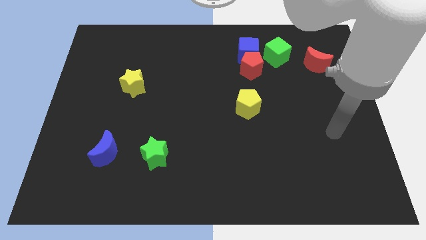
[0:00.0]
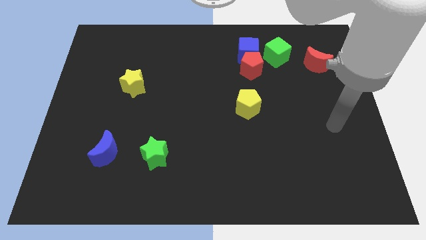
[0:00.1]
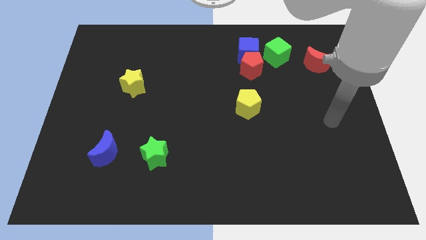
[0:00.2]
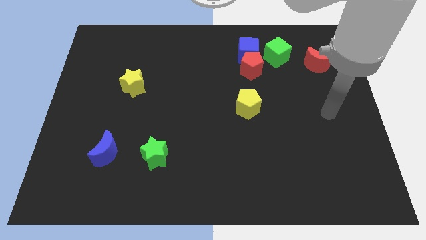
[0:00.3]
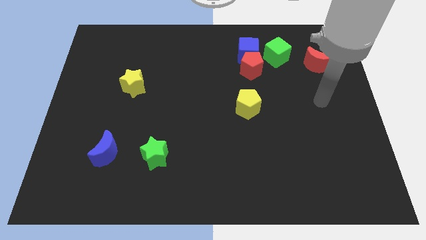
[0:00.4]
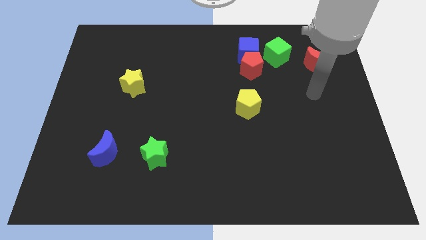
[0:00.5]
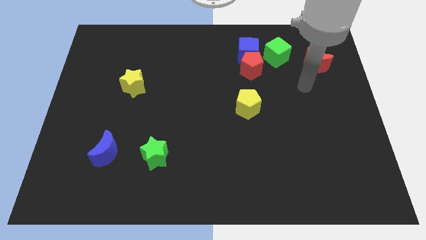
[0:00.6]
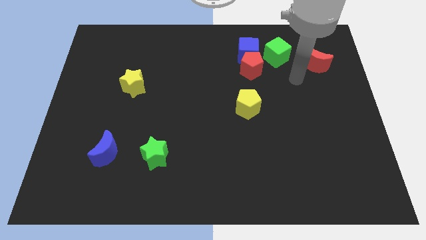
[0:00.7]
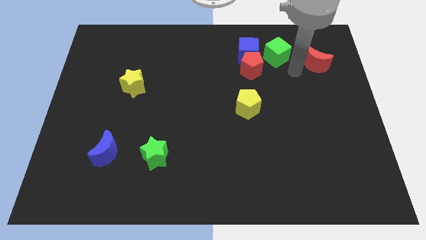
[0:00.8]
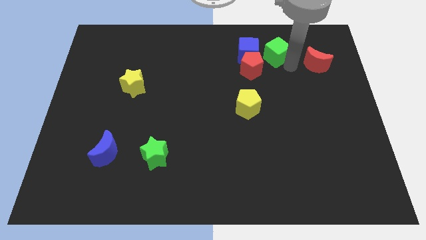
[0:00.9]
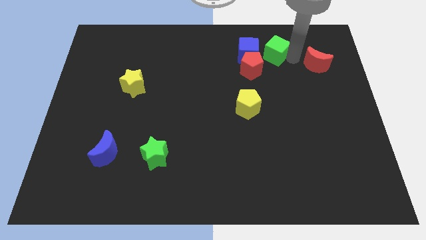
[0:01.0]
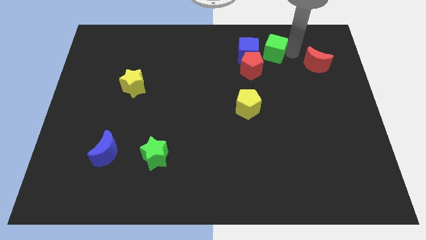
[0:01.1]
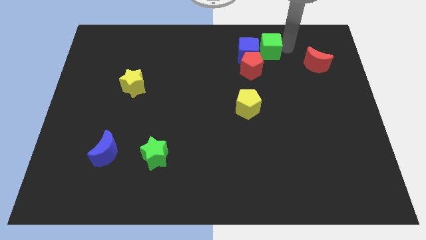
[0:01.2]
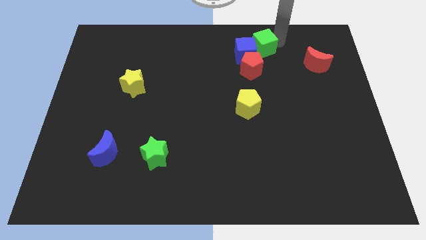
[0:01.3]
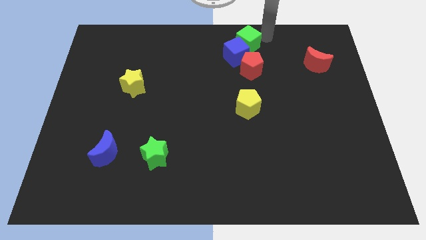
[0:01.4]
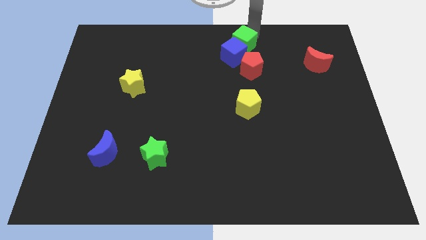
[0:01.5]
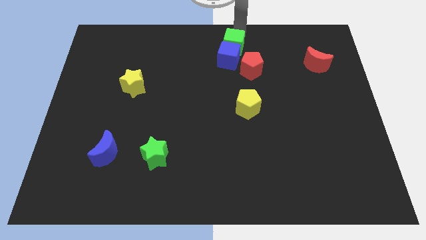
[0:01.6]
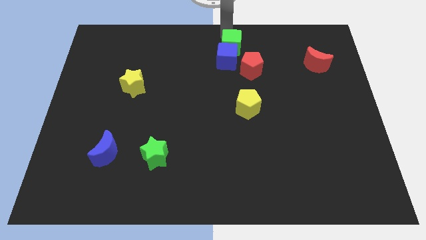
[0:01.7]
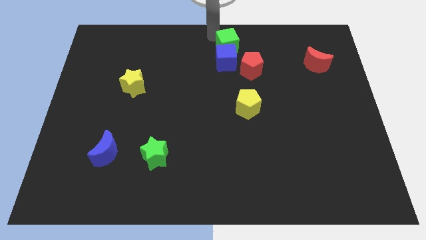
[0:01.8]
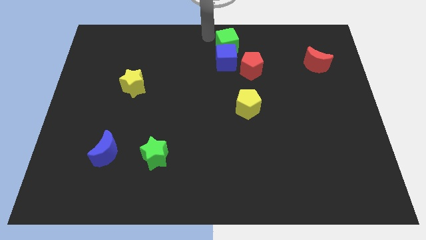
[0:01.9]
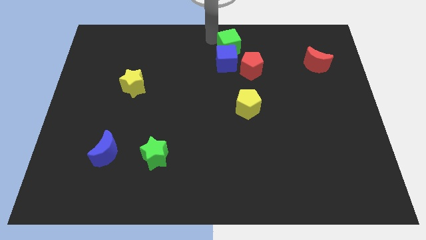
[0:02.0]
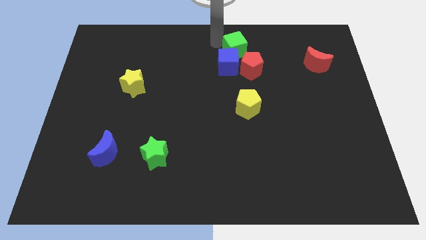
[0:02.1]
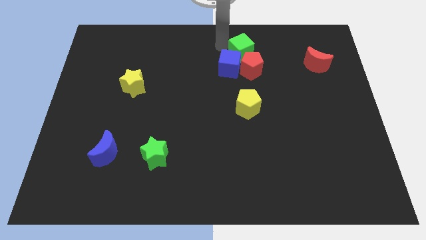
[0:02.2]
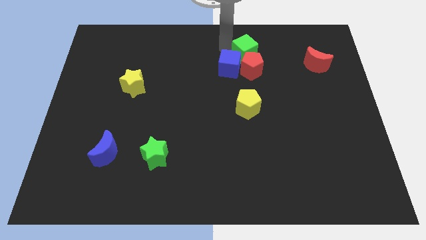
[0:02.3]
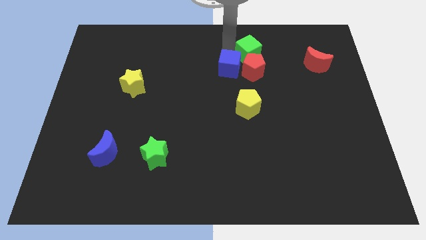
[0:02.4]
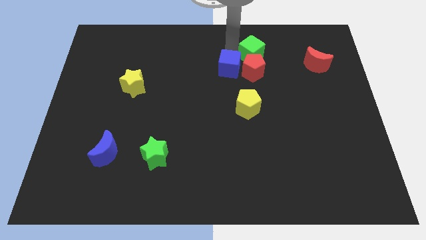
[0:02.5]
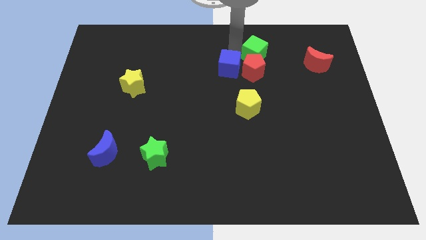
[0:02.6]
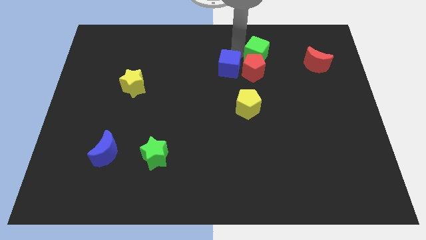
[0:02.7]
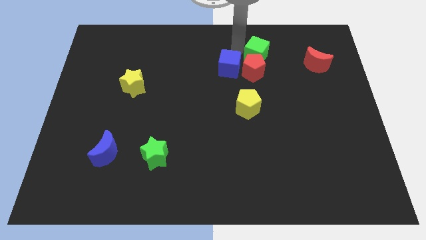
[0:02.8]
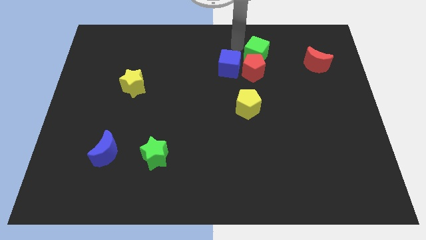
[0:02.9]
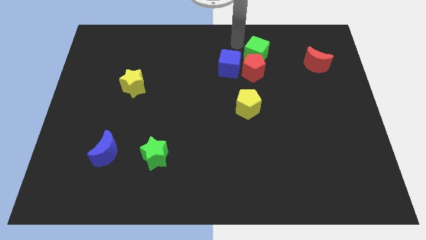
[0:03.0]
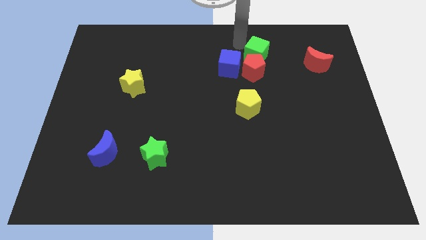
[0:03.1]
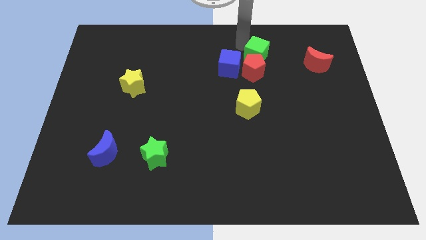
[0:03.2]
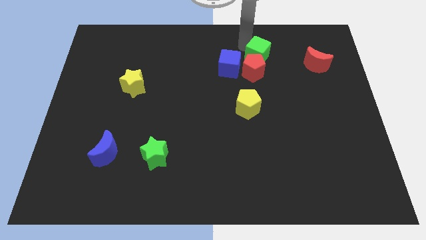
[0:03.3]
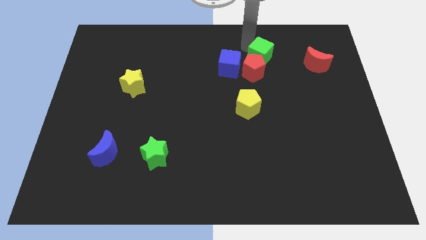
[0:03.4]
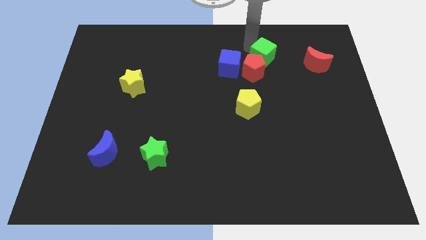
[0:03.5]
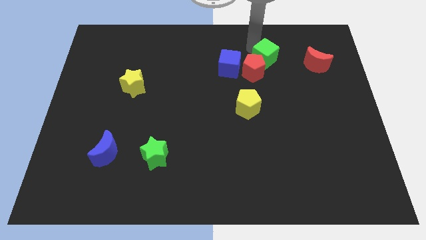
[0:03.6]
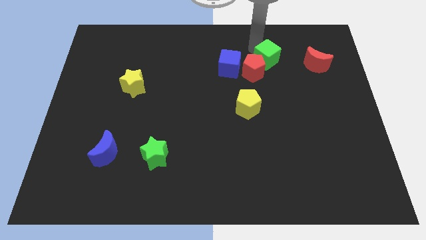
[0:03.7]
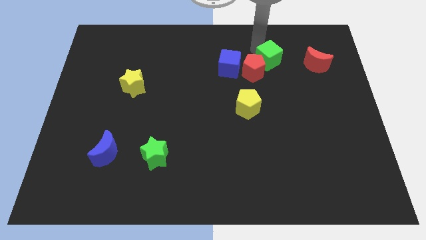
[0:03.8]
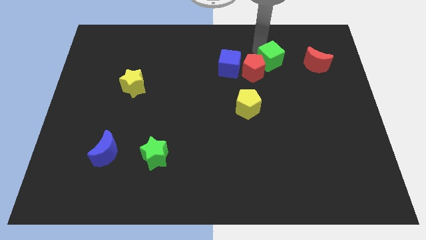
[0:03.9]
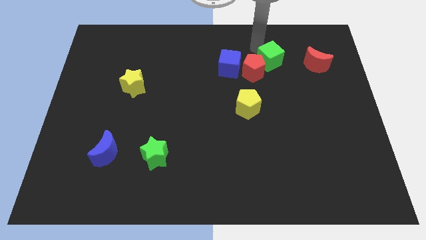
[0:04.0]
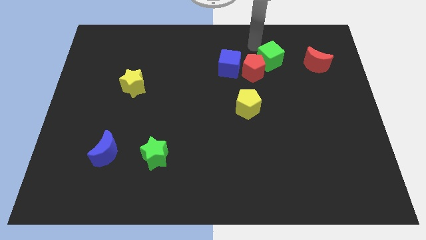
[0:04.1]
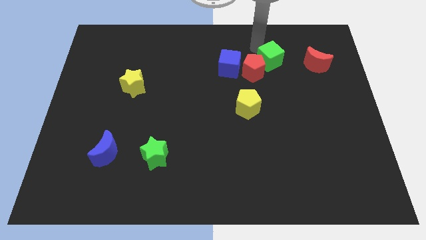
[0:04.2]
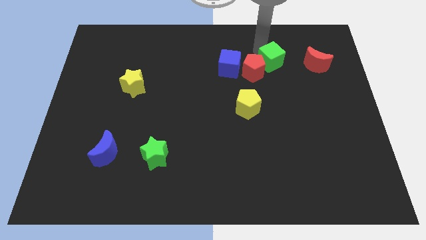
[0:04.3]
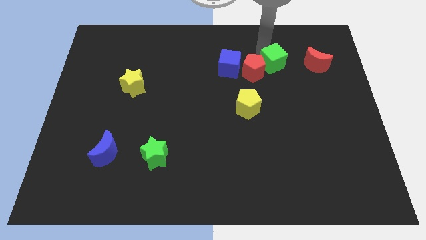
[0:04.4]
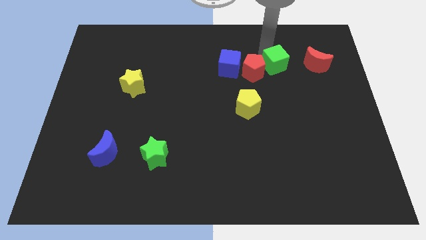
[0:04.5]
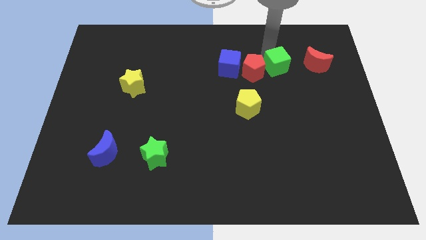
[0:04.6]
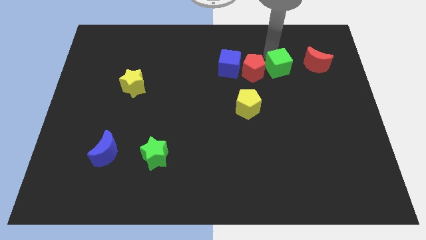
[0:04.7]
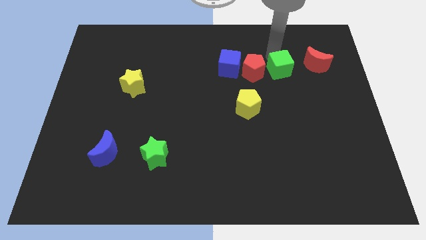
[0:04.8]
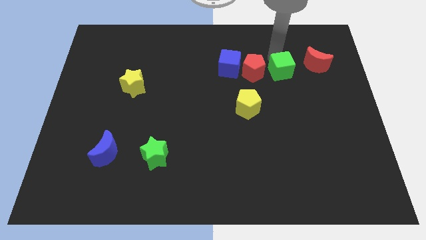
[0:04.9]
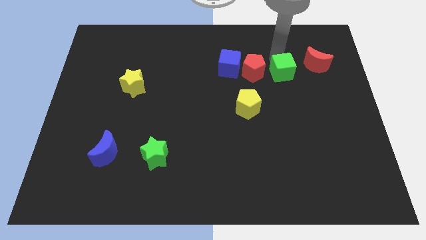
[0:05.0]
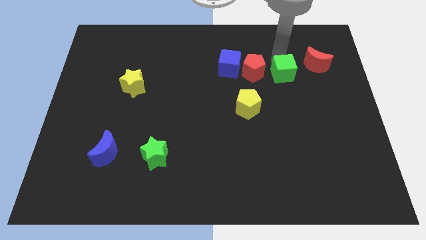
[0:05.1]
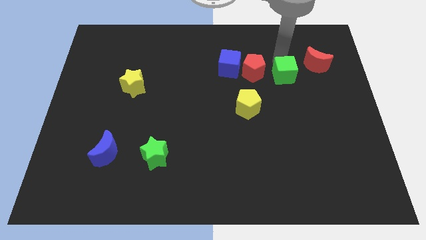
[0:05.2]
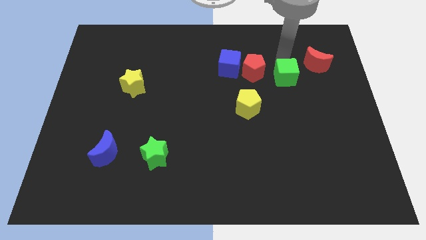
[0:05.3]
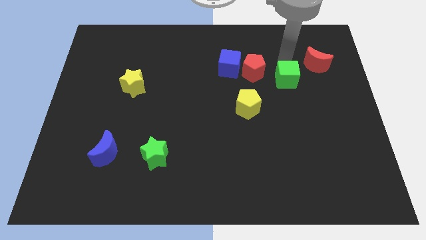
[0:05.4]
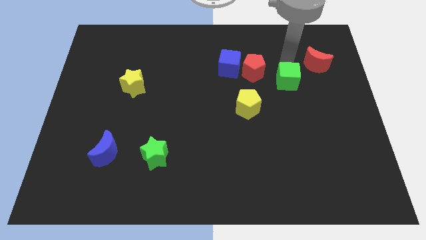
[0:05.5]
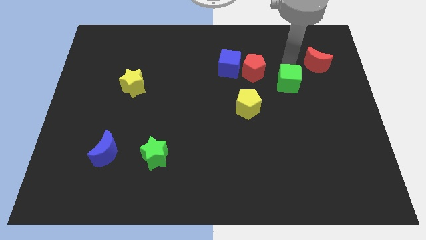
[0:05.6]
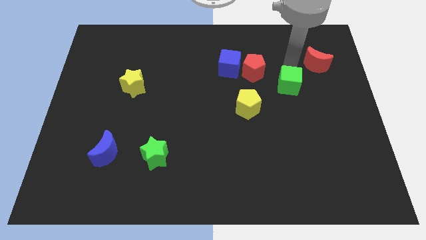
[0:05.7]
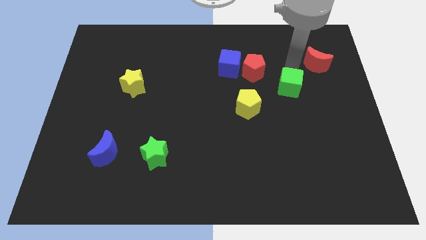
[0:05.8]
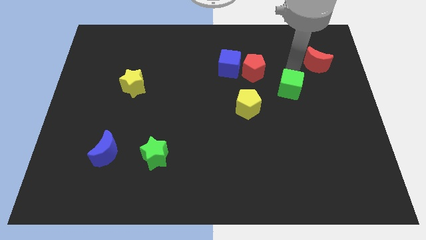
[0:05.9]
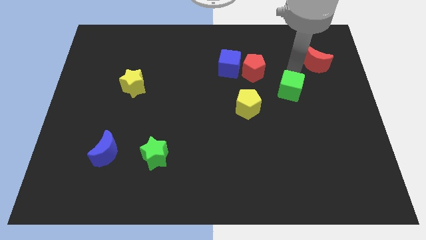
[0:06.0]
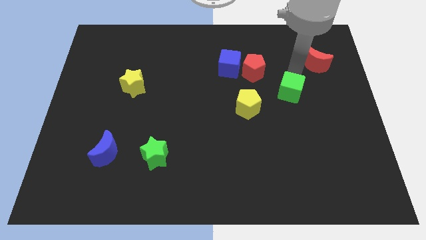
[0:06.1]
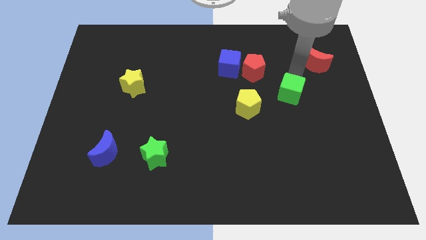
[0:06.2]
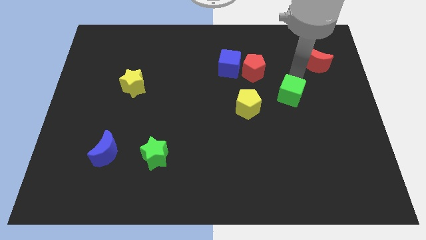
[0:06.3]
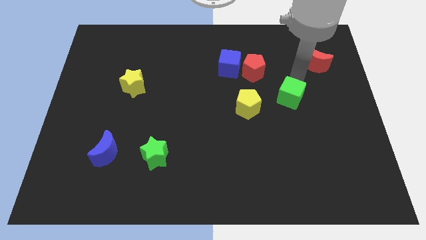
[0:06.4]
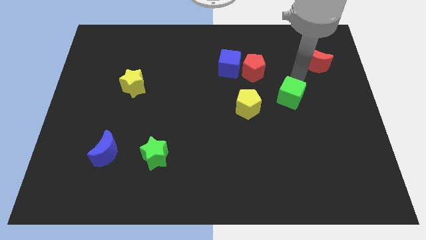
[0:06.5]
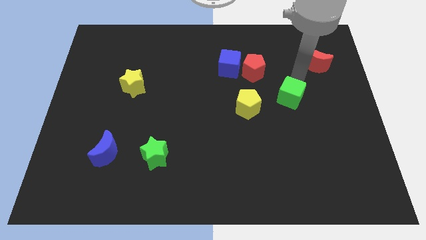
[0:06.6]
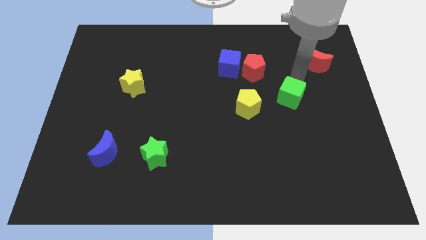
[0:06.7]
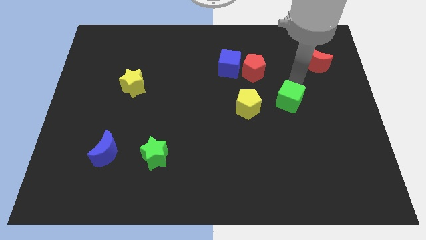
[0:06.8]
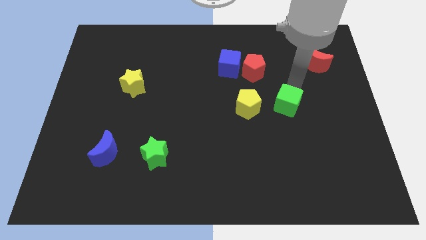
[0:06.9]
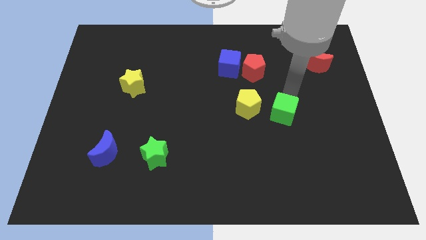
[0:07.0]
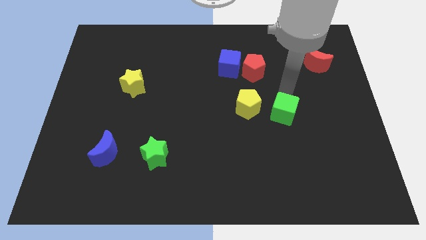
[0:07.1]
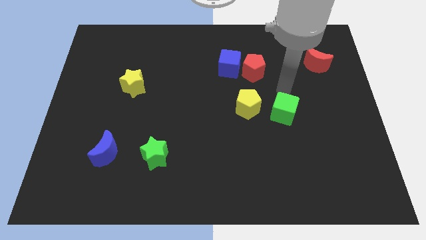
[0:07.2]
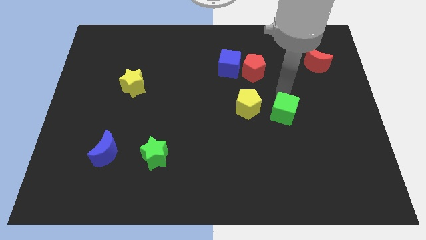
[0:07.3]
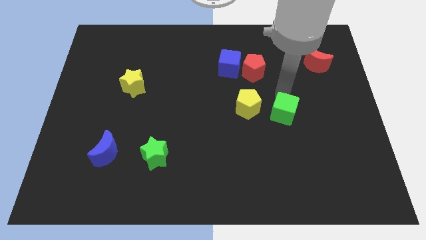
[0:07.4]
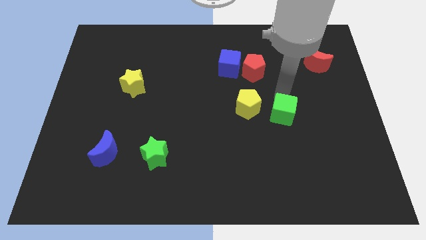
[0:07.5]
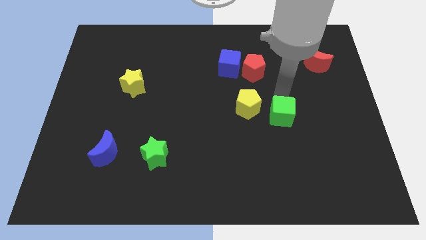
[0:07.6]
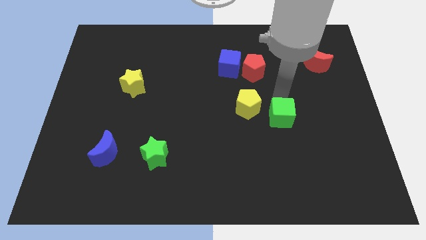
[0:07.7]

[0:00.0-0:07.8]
move the green cube down
